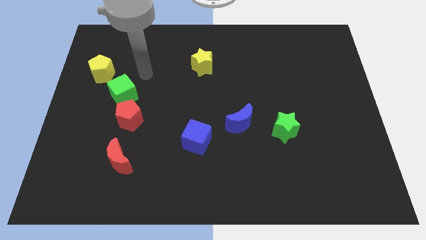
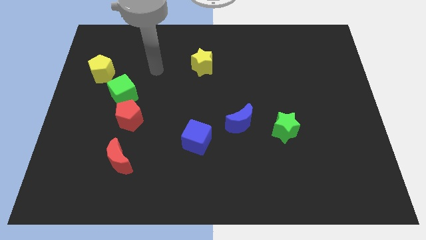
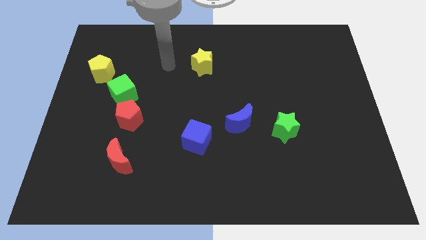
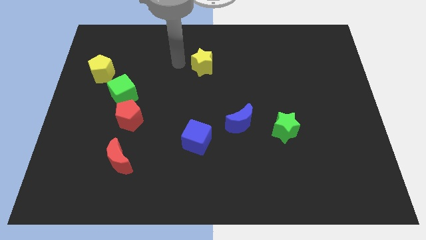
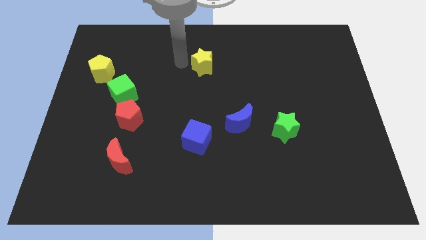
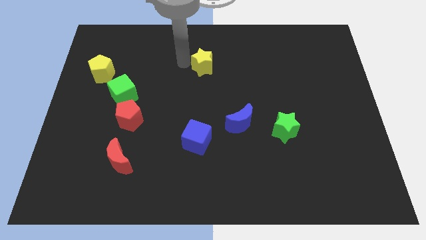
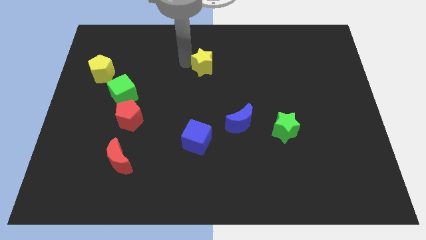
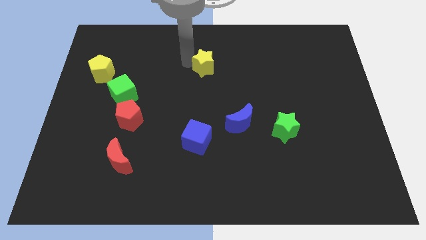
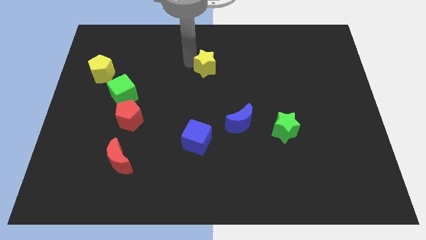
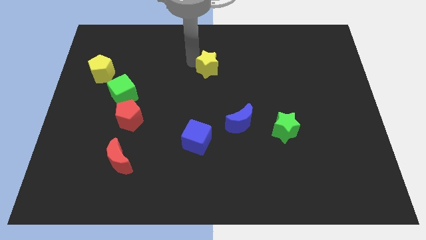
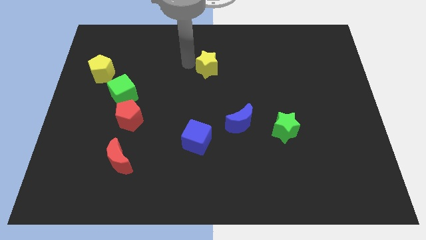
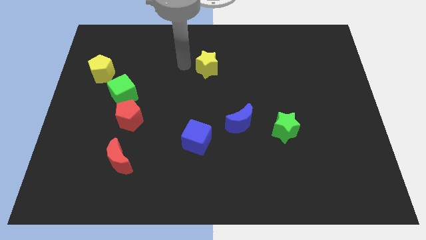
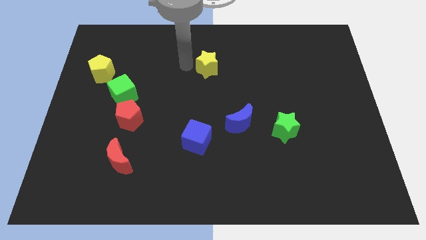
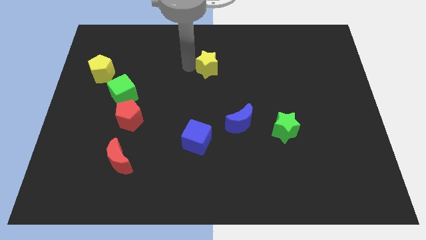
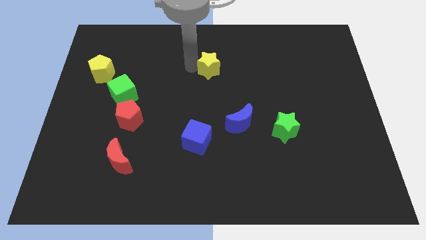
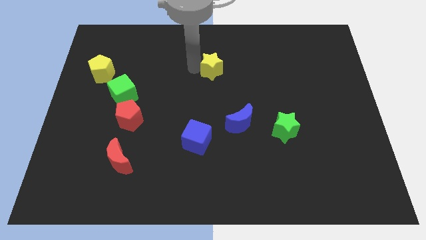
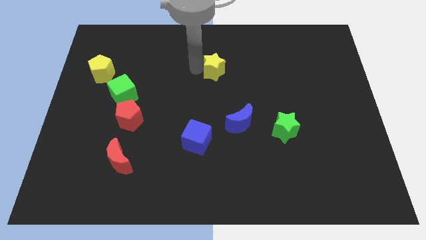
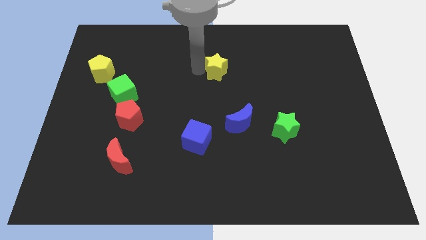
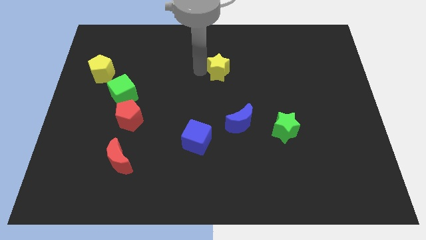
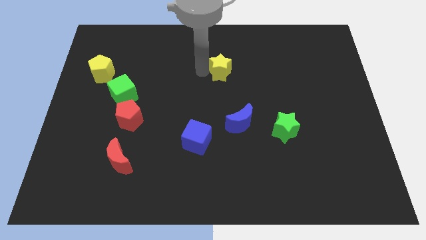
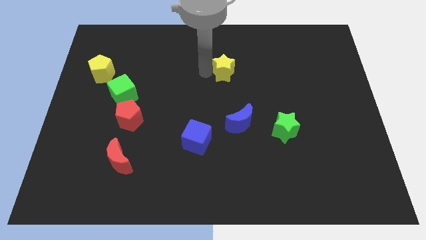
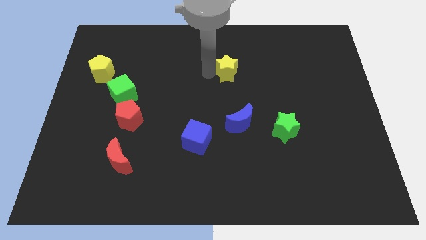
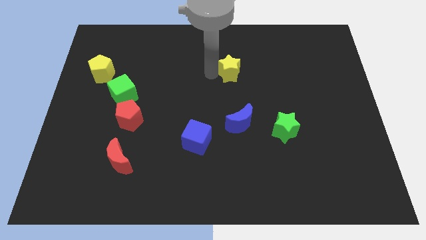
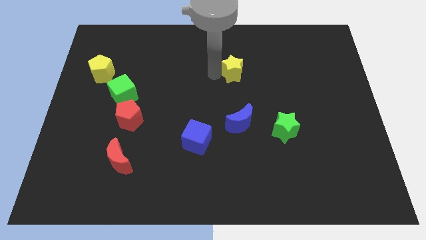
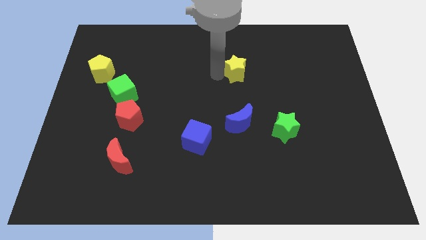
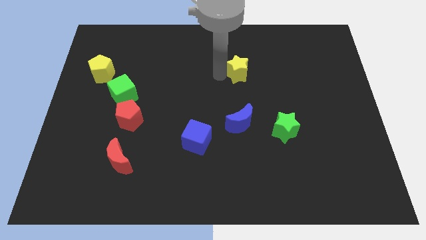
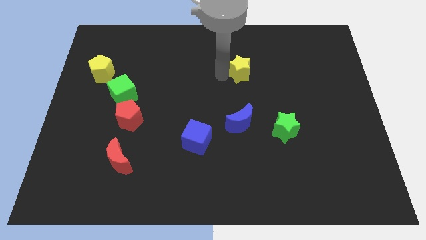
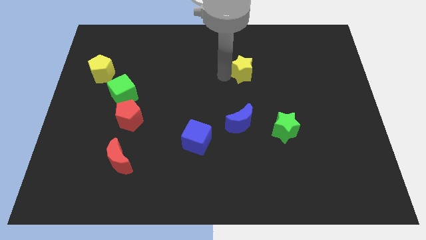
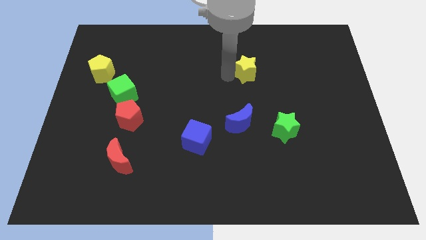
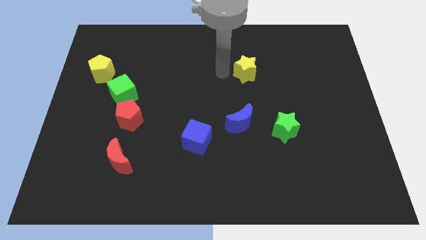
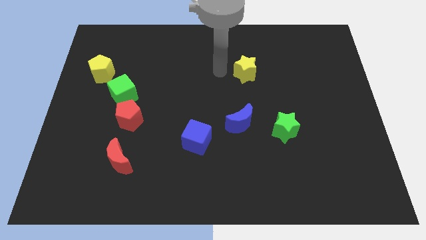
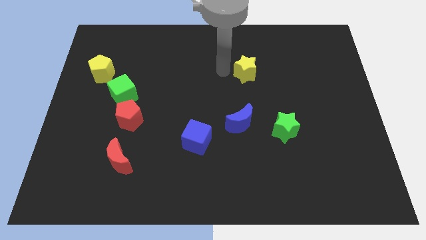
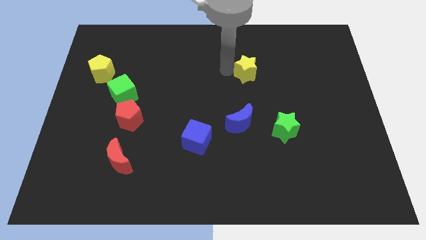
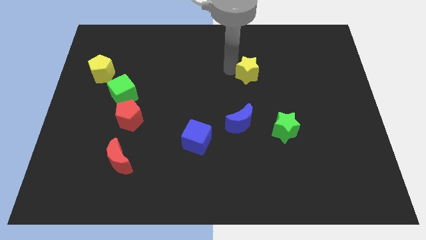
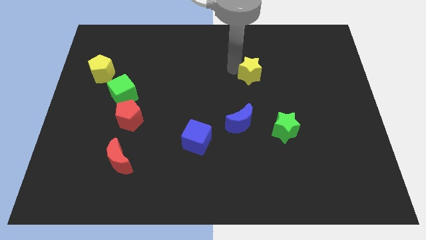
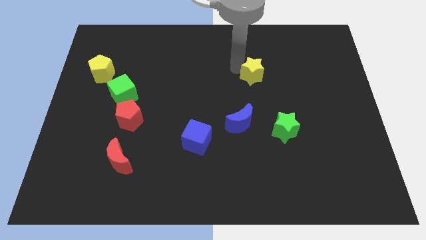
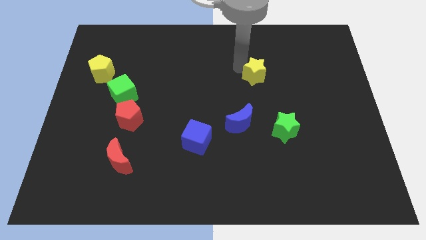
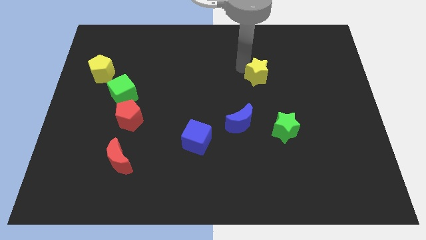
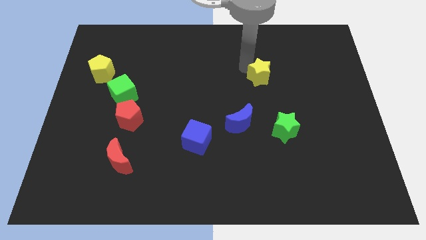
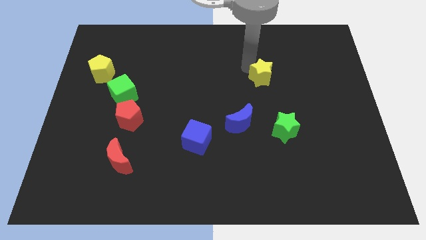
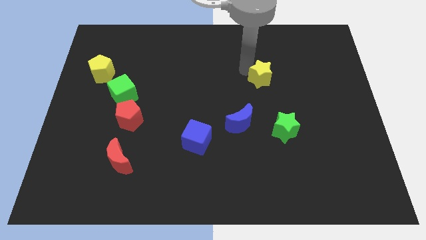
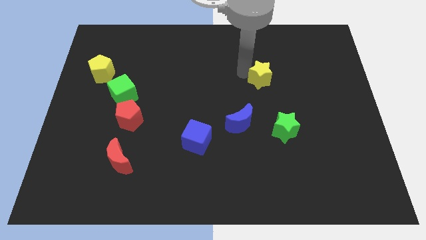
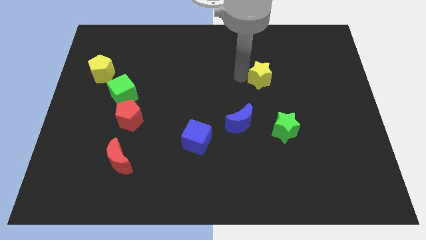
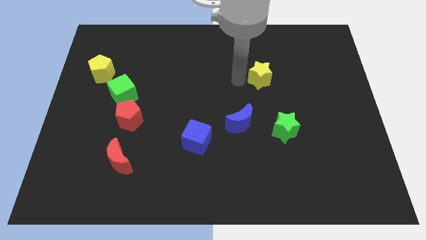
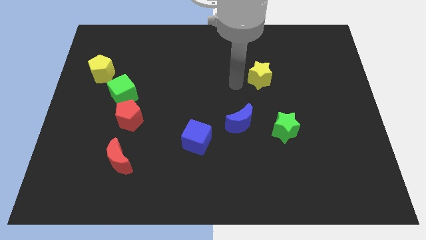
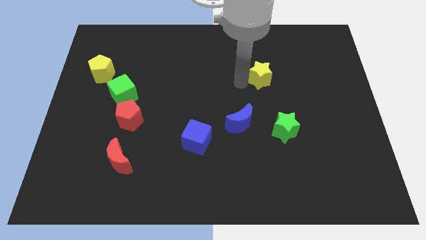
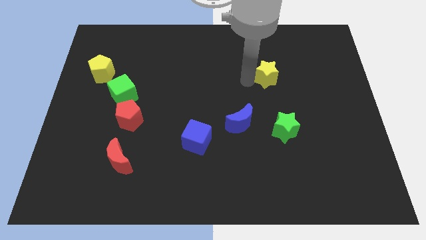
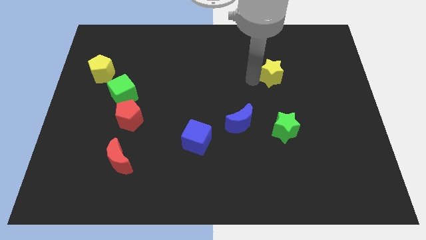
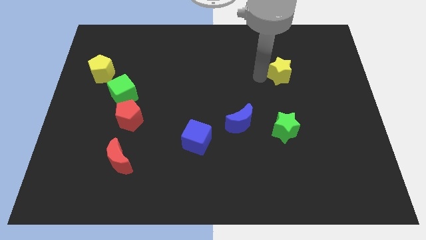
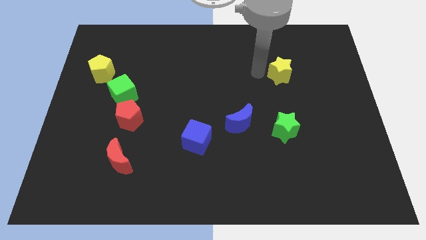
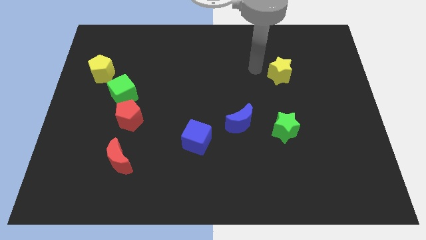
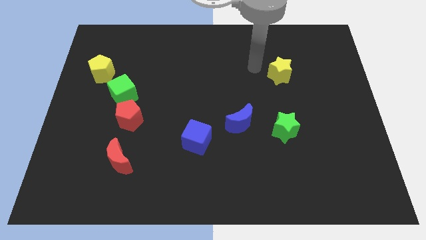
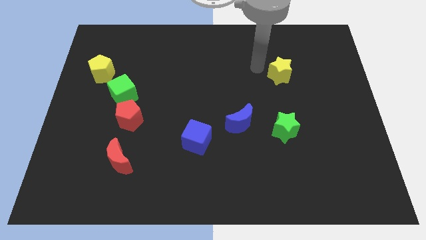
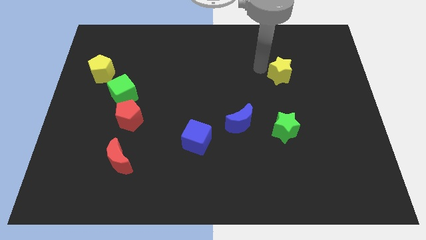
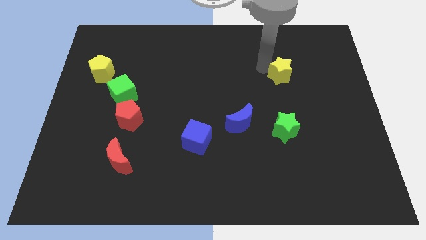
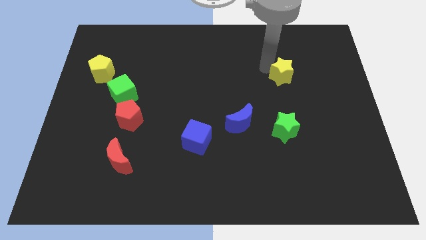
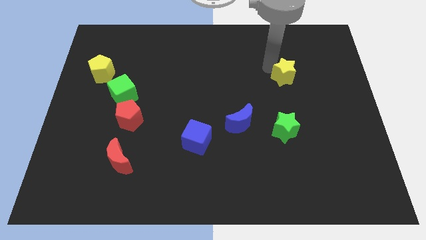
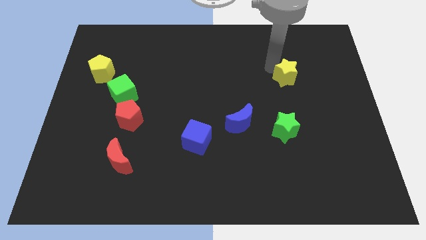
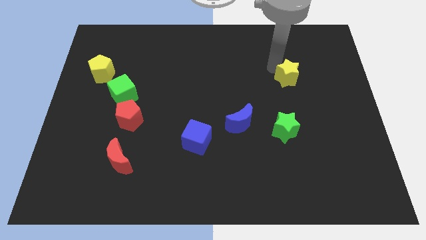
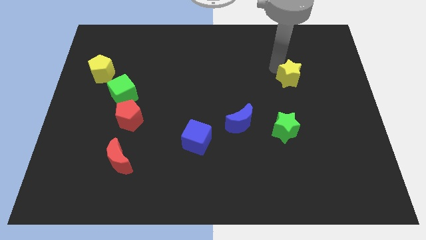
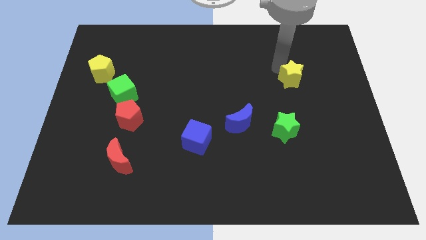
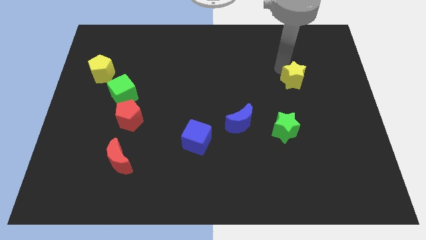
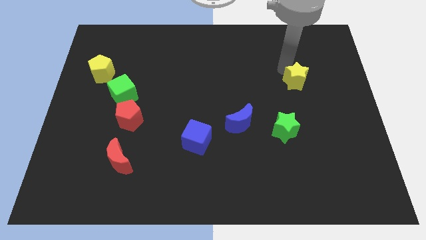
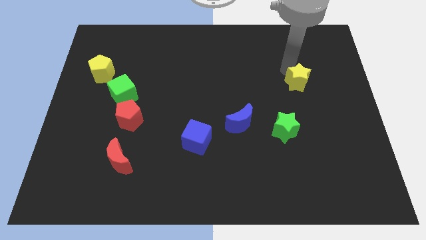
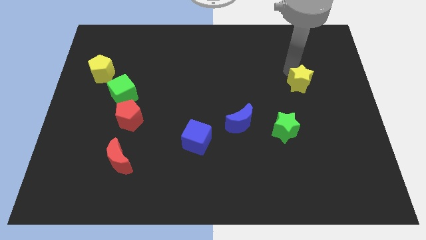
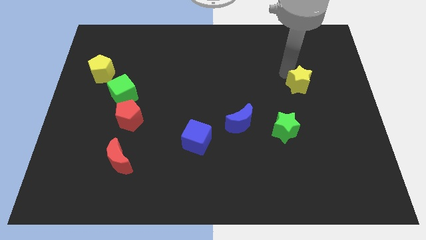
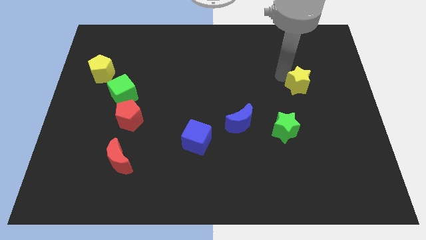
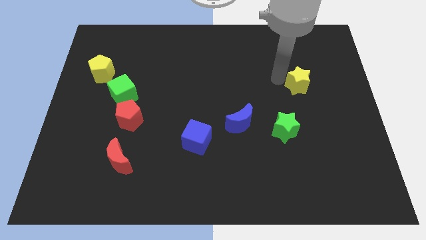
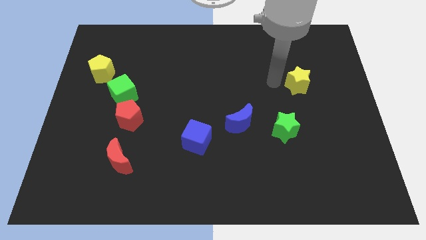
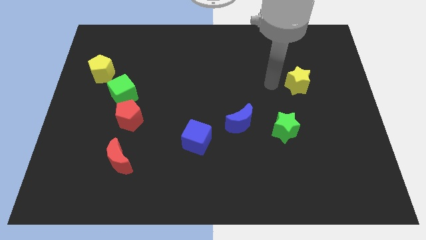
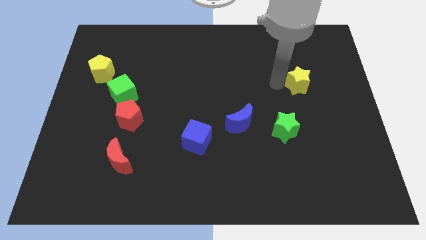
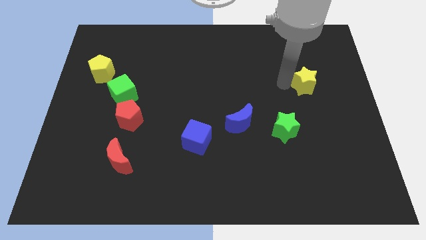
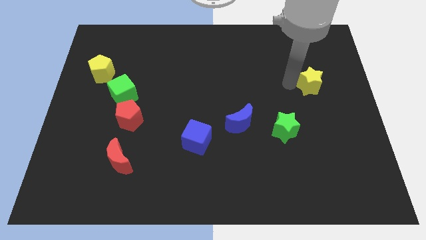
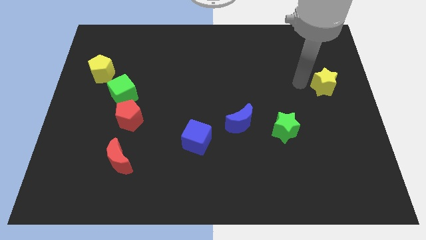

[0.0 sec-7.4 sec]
put the yellow star to the right side of the board

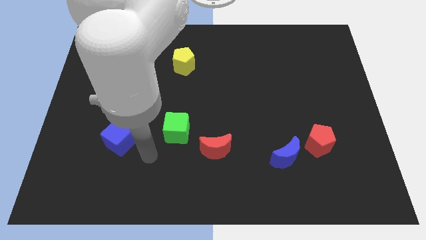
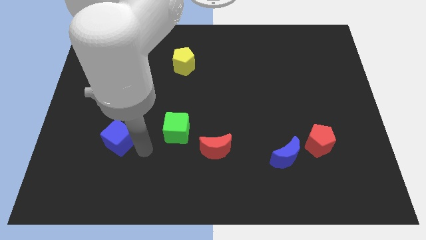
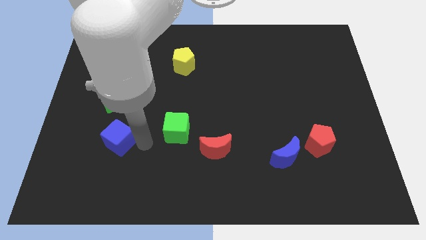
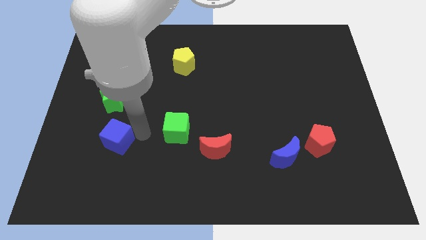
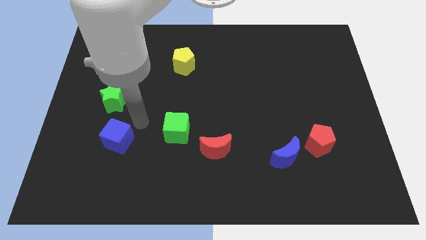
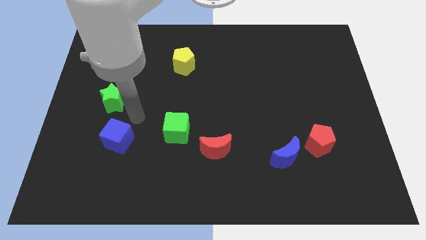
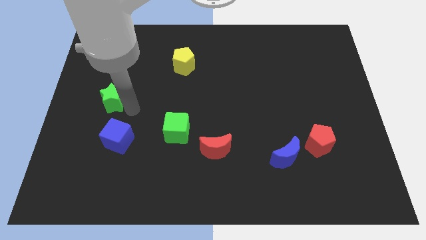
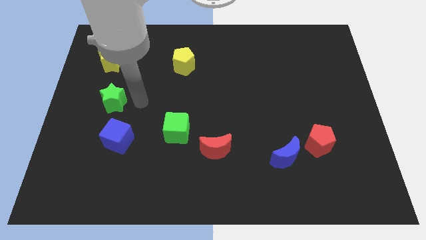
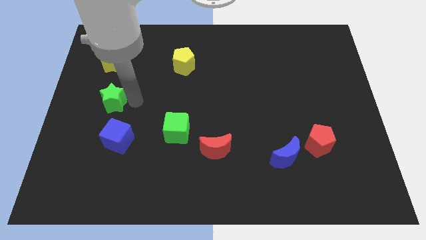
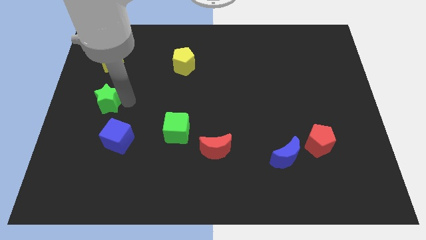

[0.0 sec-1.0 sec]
put the green star to the left side
